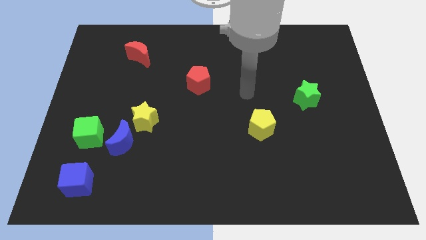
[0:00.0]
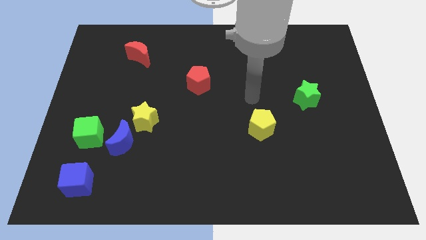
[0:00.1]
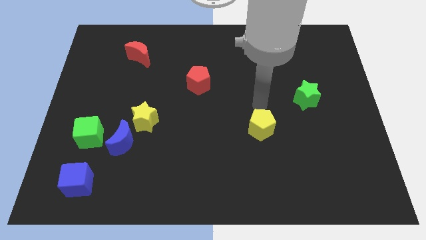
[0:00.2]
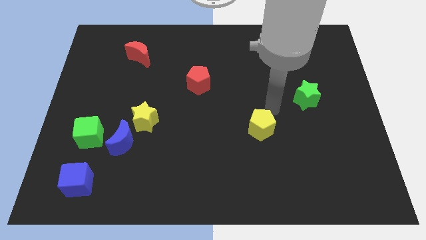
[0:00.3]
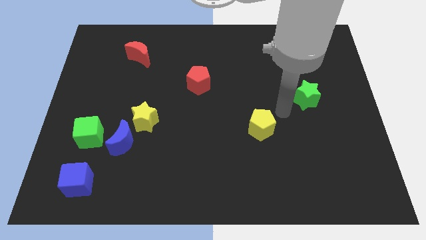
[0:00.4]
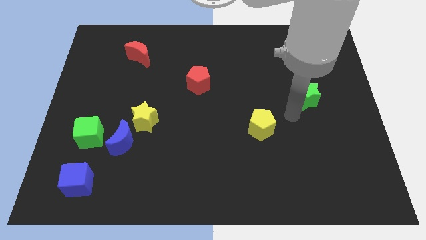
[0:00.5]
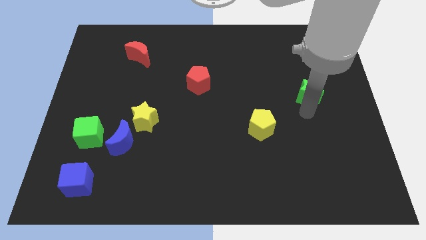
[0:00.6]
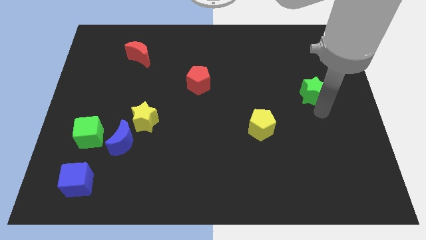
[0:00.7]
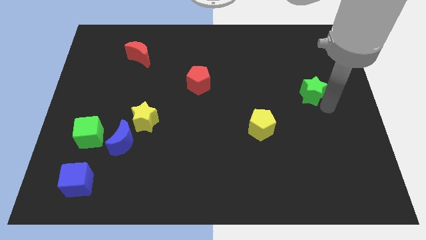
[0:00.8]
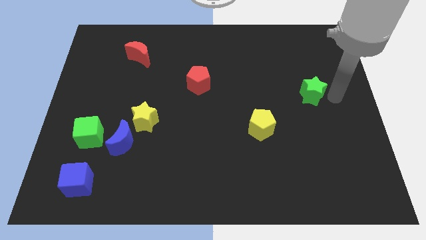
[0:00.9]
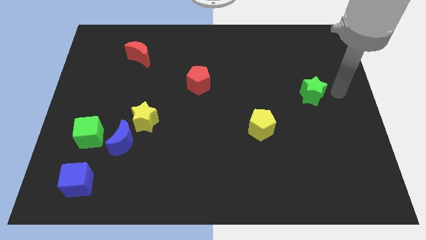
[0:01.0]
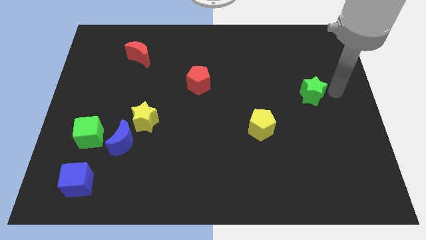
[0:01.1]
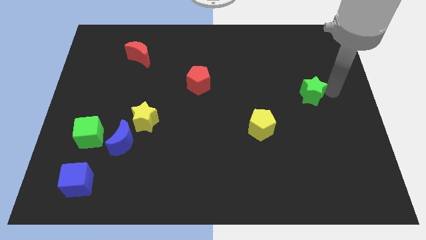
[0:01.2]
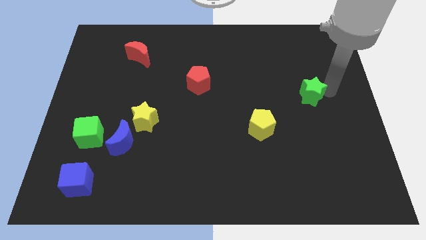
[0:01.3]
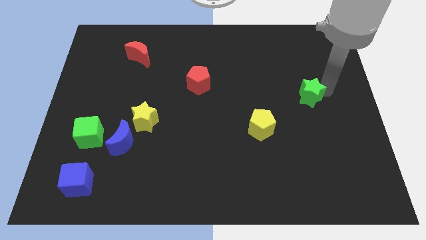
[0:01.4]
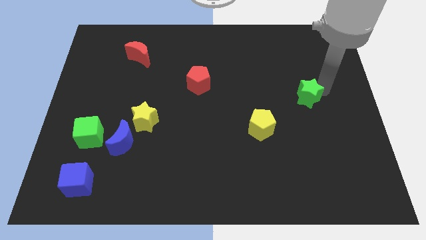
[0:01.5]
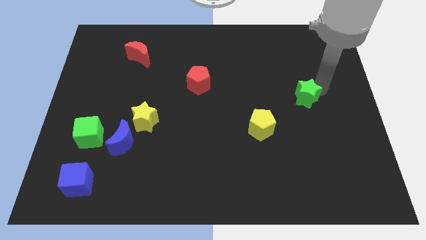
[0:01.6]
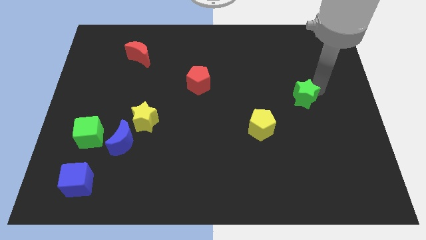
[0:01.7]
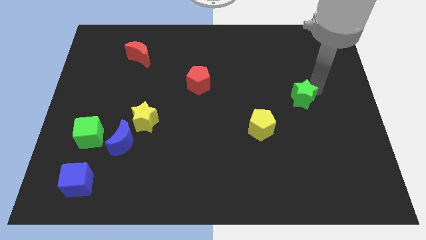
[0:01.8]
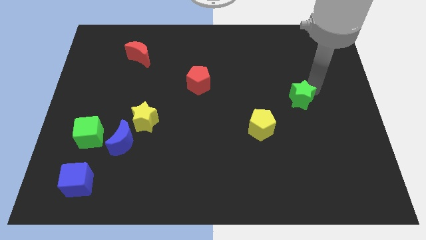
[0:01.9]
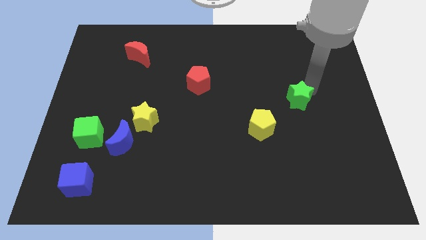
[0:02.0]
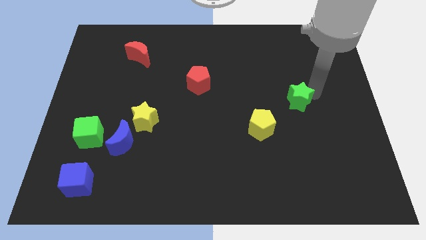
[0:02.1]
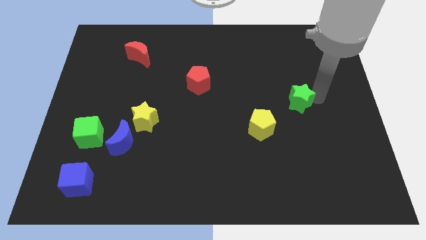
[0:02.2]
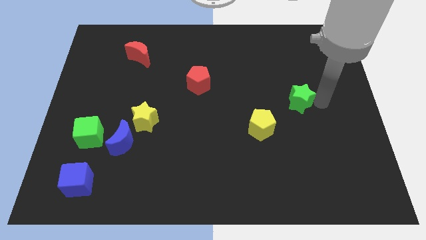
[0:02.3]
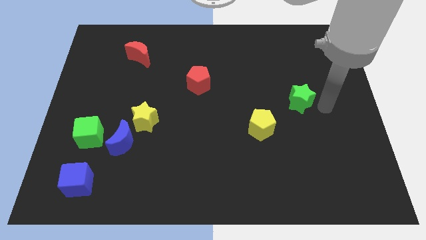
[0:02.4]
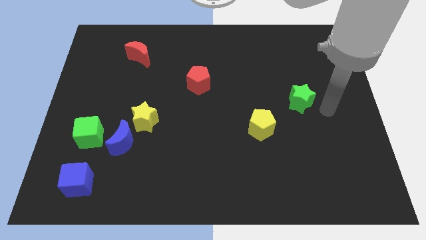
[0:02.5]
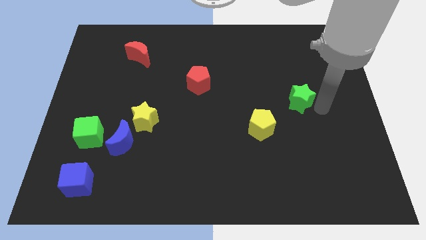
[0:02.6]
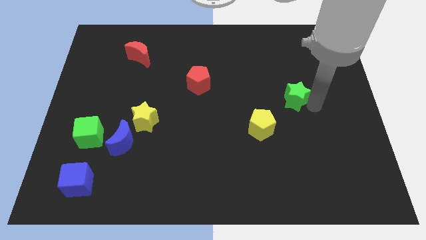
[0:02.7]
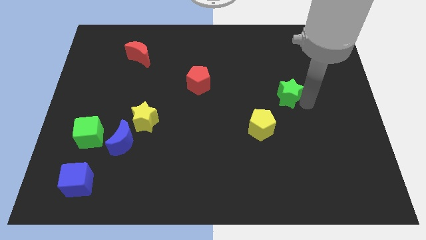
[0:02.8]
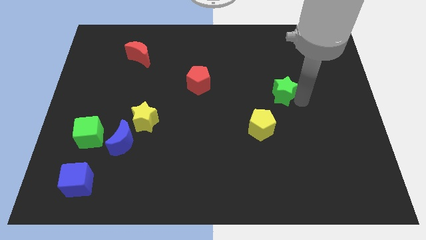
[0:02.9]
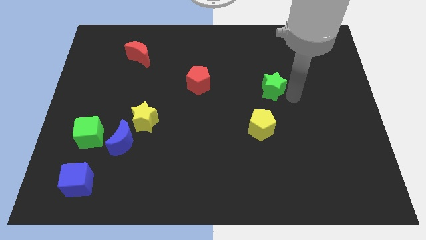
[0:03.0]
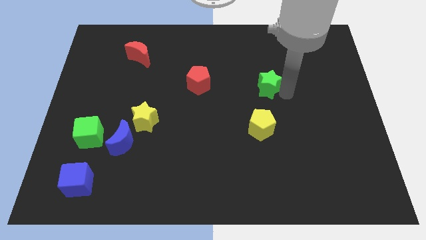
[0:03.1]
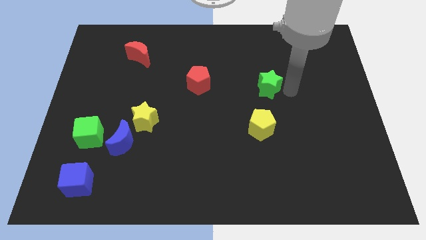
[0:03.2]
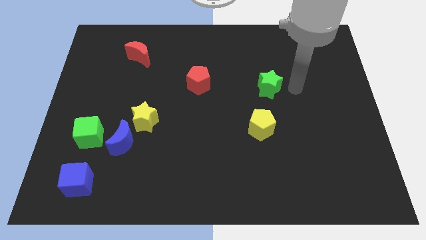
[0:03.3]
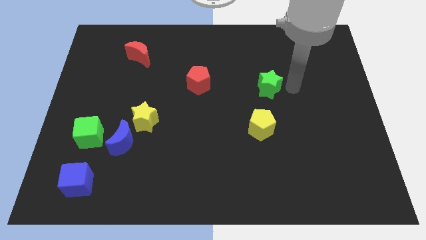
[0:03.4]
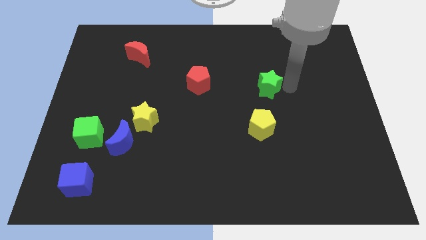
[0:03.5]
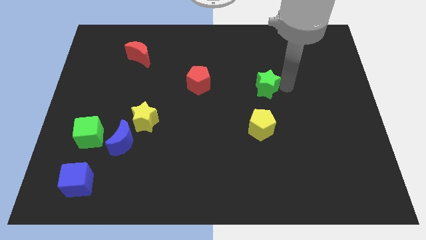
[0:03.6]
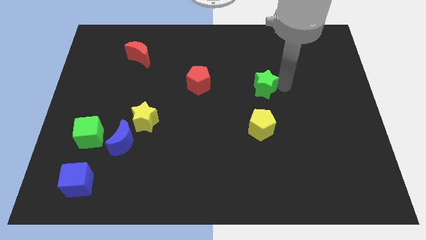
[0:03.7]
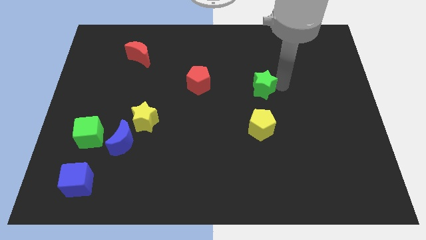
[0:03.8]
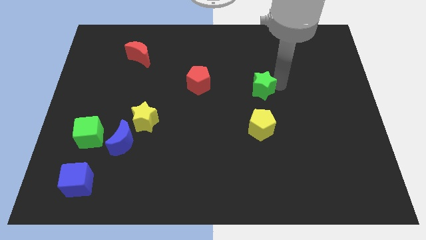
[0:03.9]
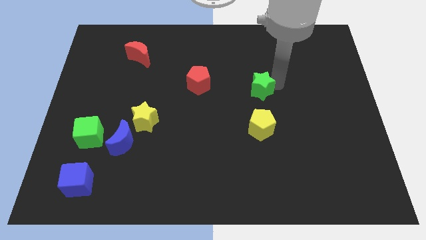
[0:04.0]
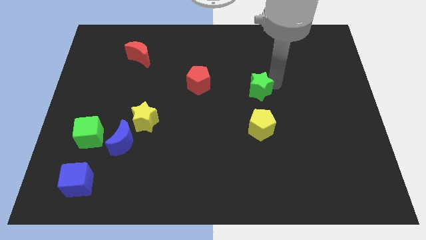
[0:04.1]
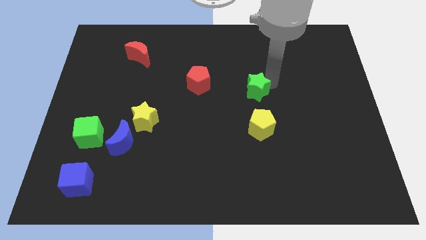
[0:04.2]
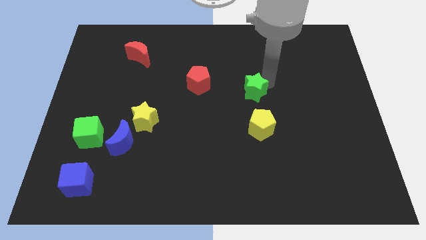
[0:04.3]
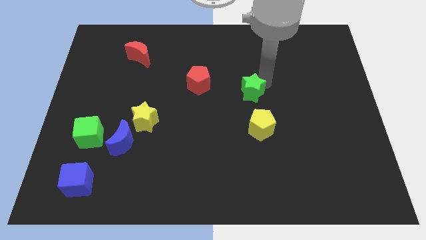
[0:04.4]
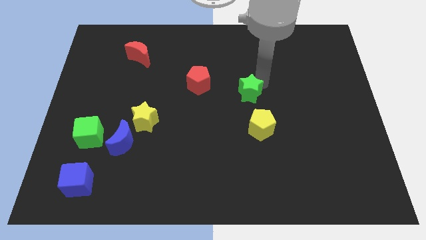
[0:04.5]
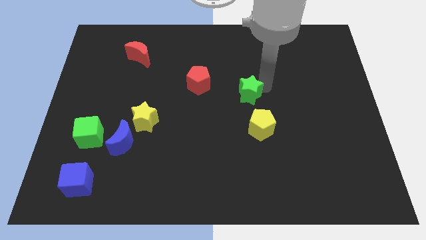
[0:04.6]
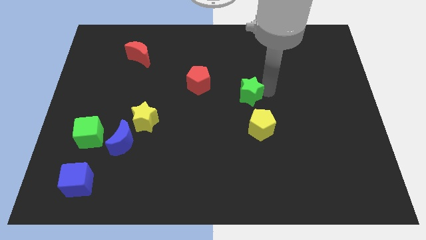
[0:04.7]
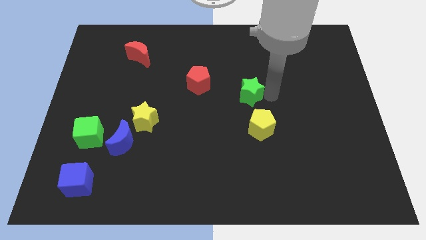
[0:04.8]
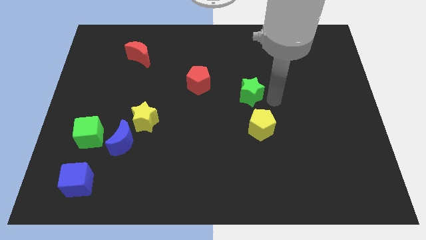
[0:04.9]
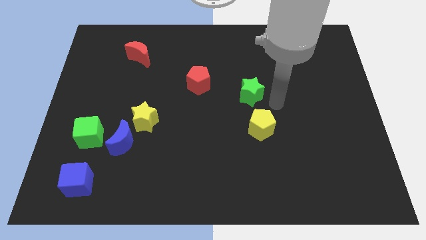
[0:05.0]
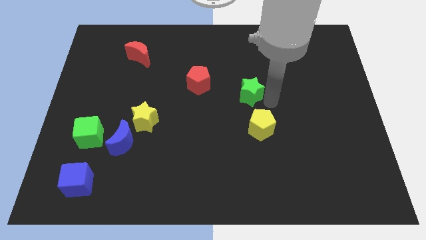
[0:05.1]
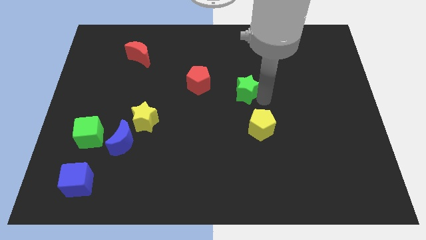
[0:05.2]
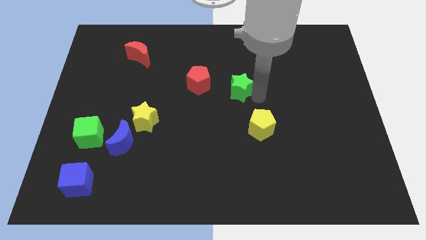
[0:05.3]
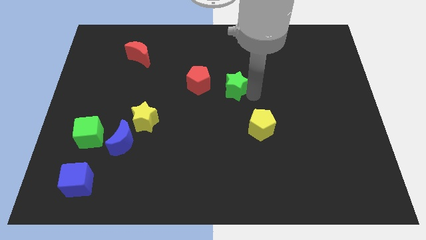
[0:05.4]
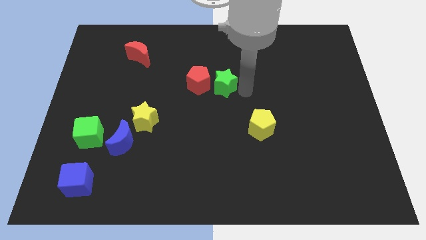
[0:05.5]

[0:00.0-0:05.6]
push the green star towards the red pentagon

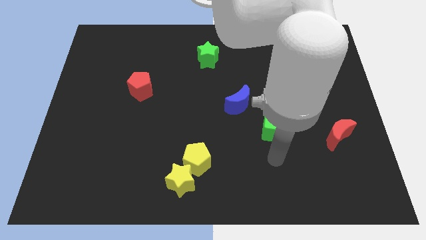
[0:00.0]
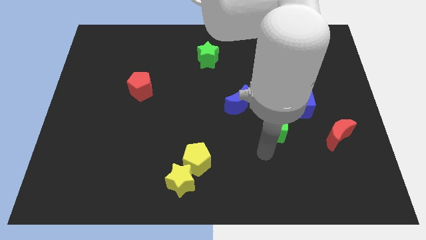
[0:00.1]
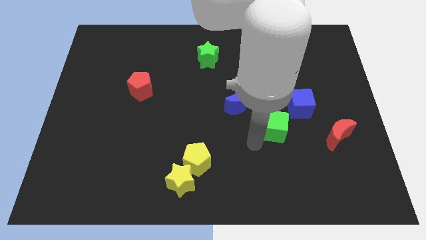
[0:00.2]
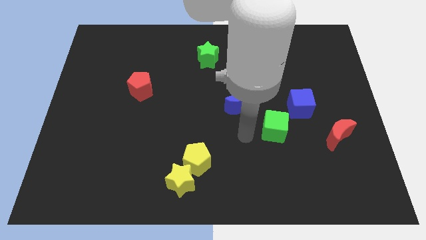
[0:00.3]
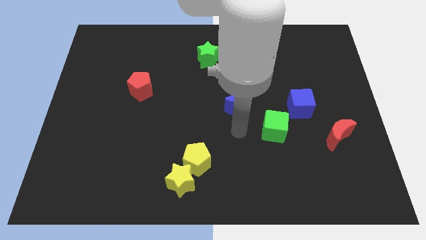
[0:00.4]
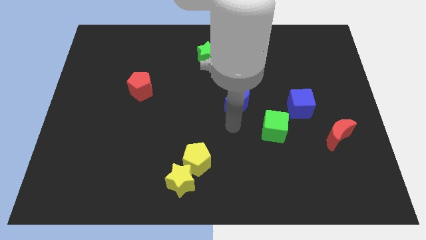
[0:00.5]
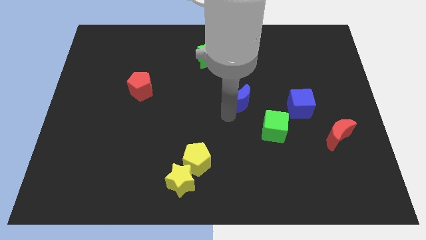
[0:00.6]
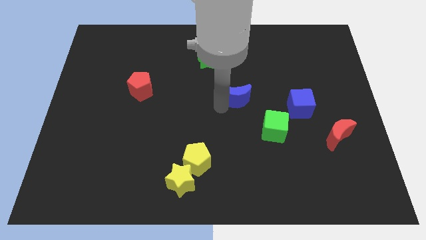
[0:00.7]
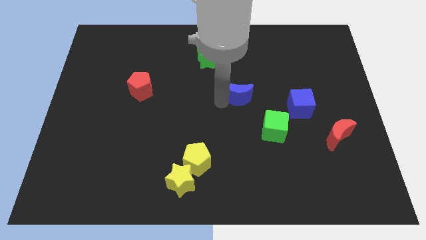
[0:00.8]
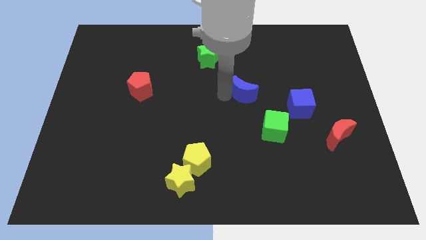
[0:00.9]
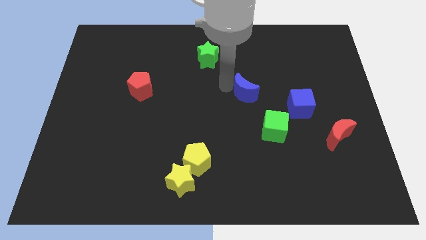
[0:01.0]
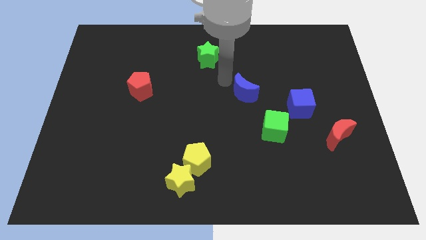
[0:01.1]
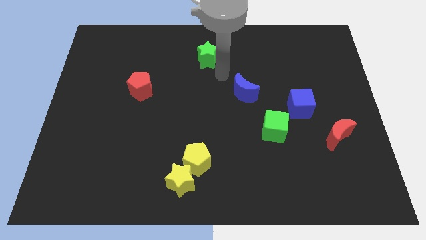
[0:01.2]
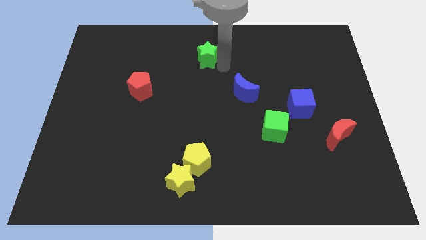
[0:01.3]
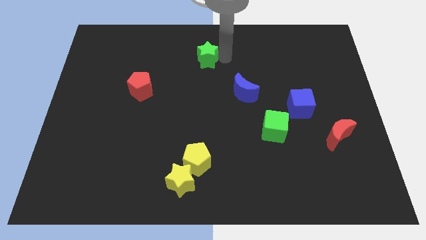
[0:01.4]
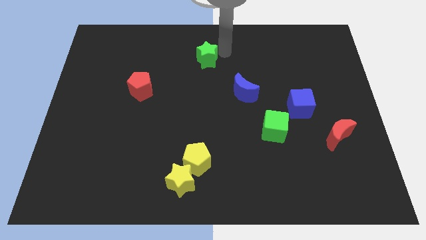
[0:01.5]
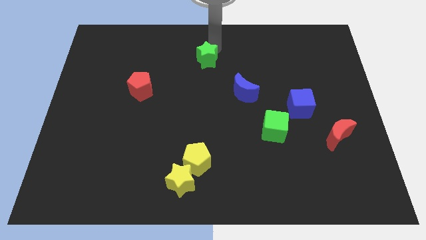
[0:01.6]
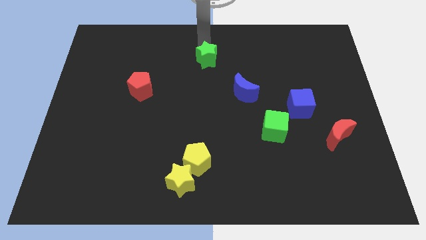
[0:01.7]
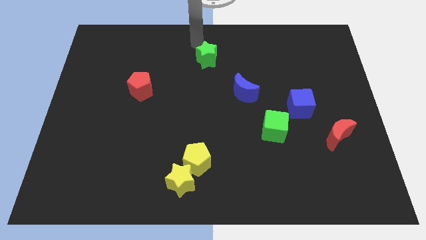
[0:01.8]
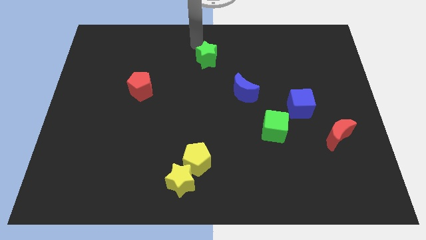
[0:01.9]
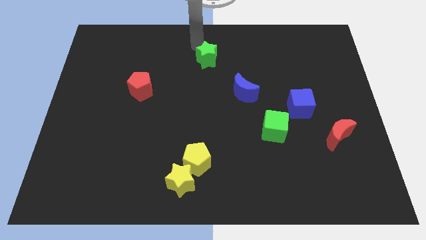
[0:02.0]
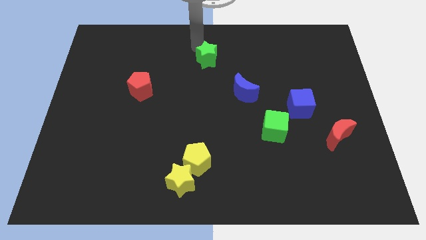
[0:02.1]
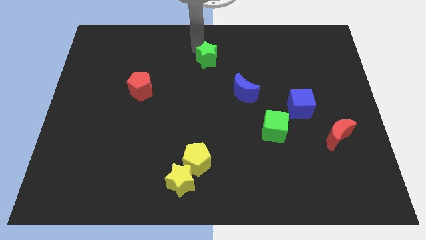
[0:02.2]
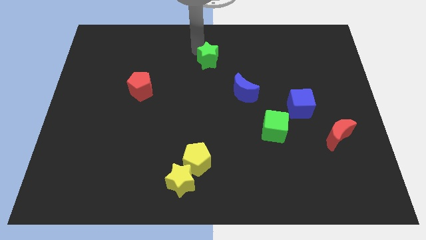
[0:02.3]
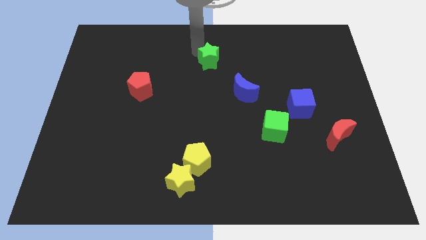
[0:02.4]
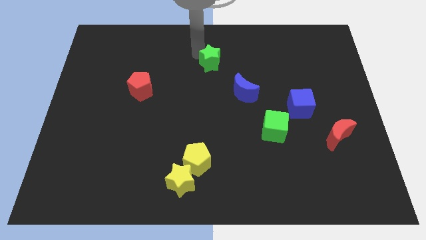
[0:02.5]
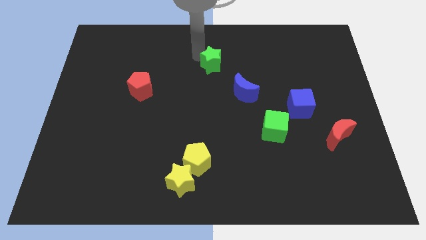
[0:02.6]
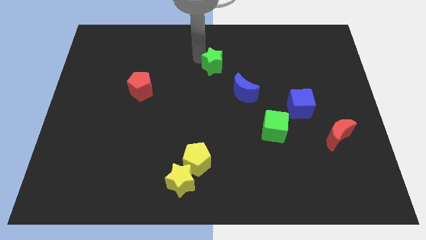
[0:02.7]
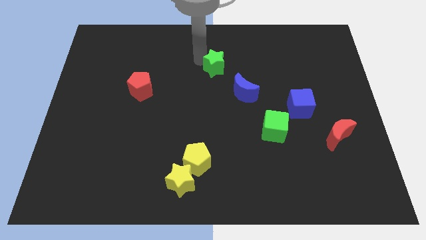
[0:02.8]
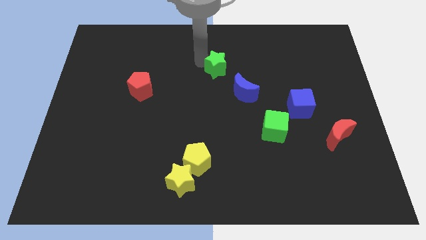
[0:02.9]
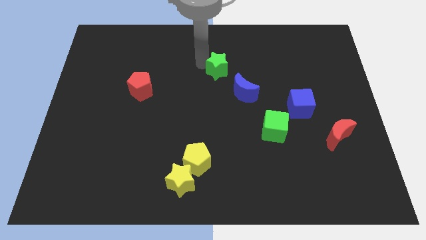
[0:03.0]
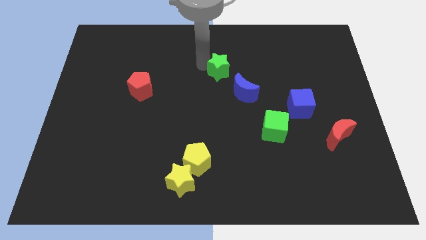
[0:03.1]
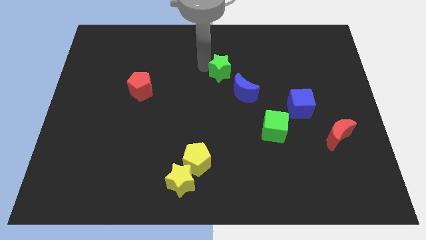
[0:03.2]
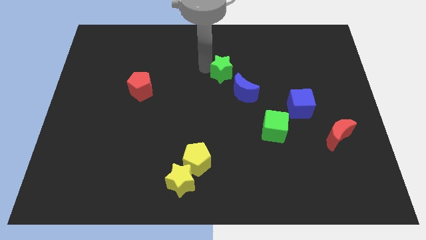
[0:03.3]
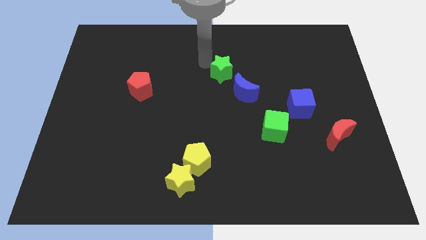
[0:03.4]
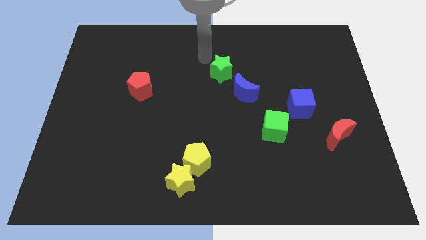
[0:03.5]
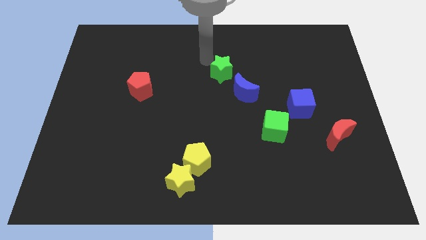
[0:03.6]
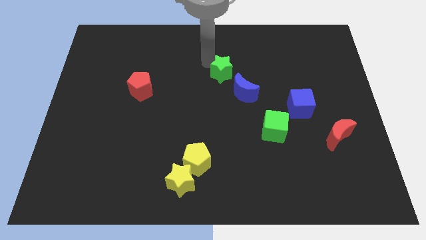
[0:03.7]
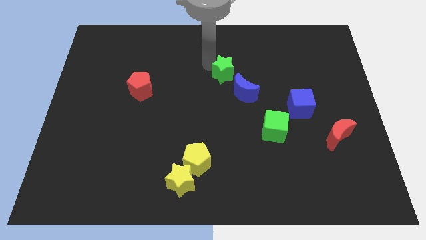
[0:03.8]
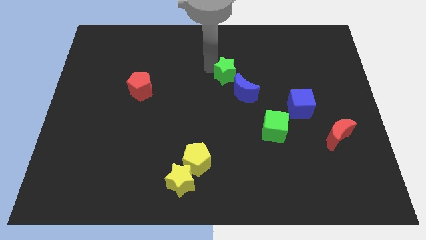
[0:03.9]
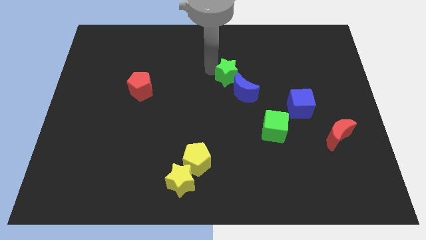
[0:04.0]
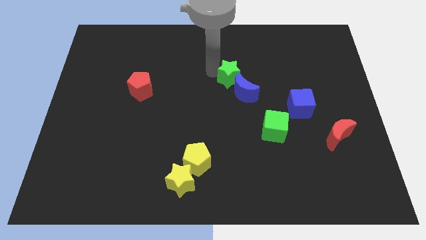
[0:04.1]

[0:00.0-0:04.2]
slide the green star to the blue moon
